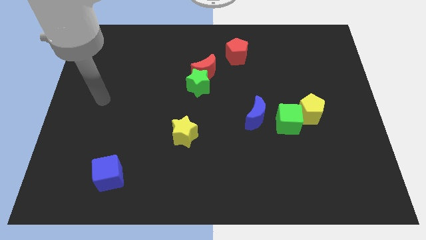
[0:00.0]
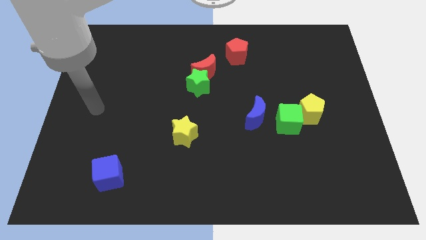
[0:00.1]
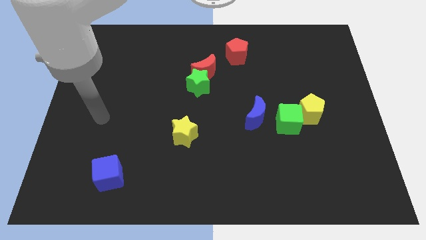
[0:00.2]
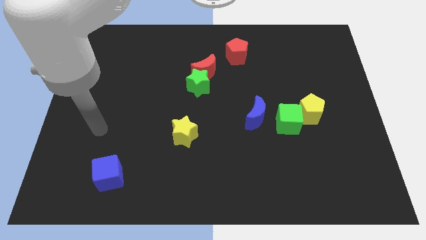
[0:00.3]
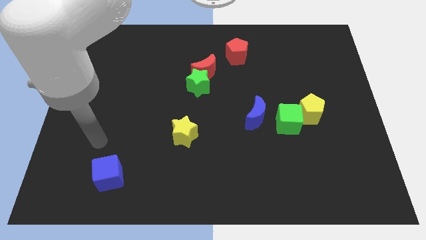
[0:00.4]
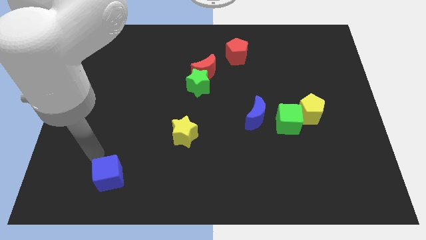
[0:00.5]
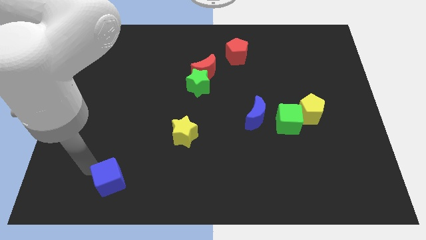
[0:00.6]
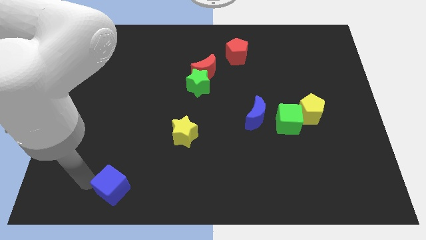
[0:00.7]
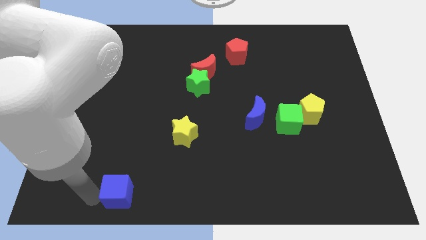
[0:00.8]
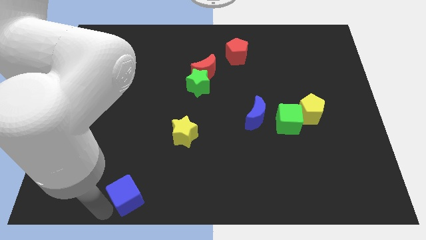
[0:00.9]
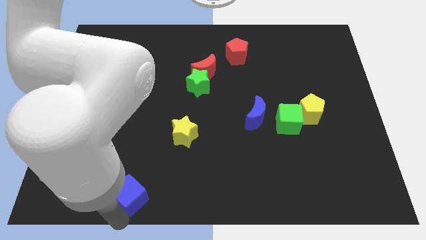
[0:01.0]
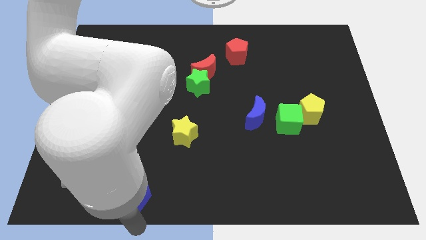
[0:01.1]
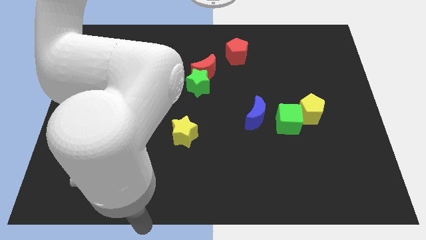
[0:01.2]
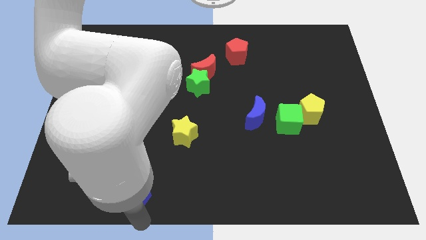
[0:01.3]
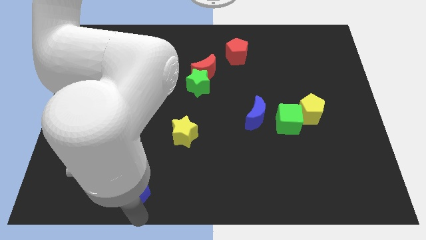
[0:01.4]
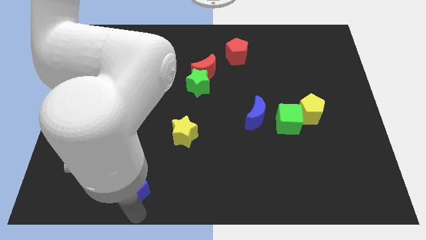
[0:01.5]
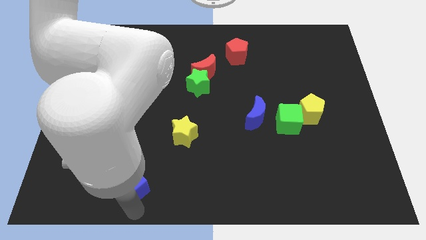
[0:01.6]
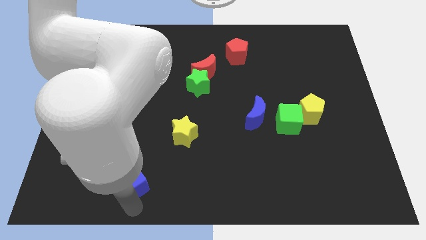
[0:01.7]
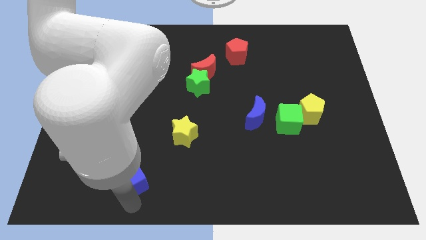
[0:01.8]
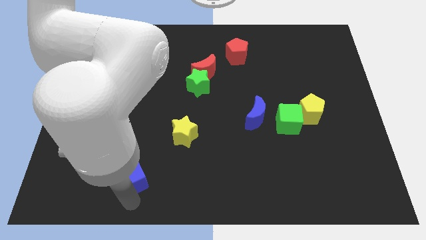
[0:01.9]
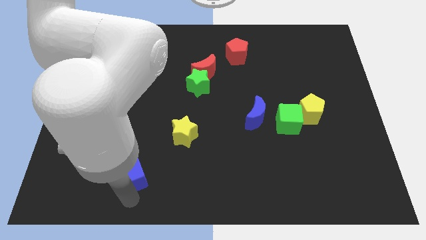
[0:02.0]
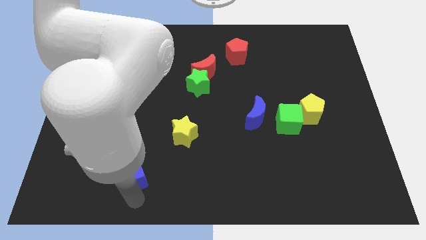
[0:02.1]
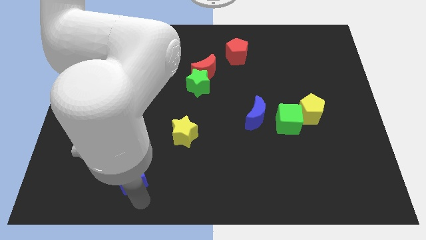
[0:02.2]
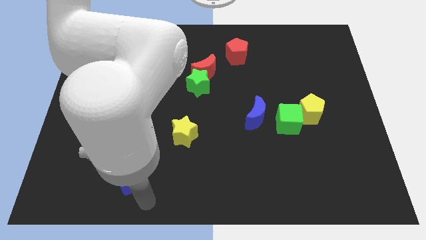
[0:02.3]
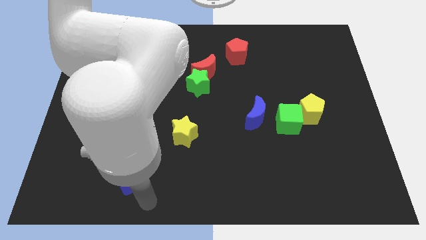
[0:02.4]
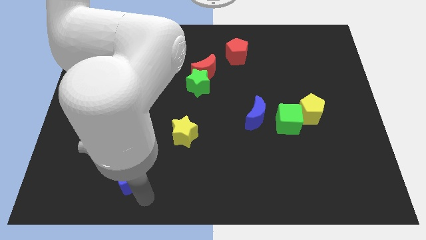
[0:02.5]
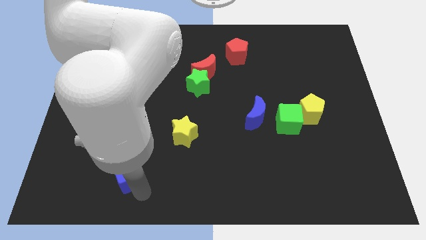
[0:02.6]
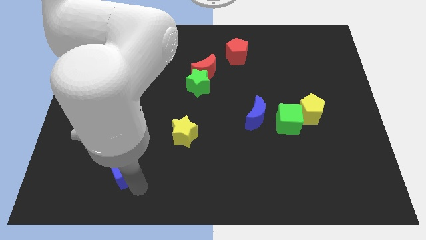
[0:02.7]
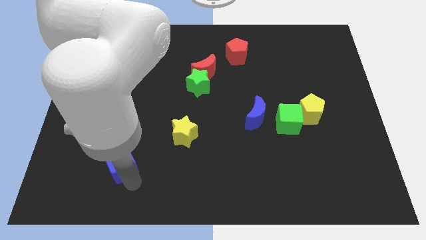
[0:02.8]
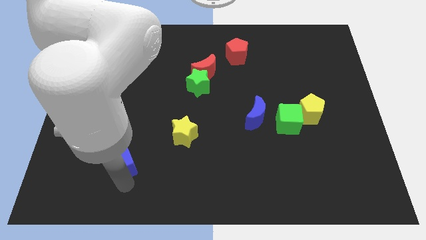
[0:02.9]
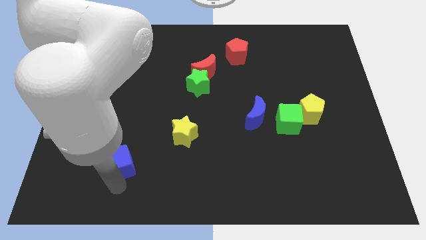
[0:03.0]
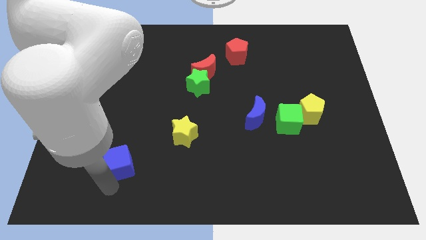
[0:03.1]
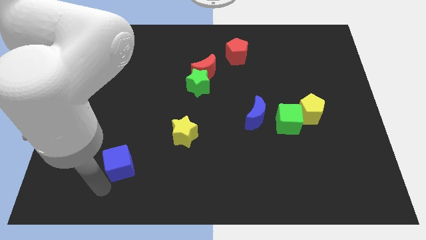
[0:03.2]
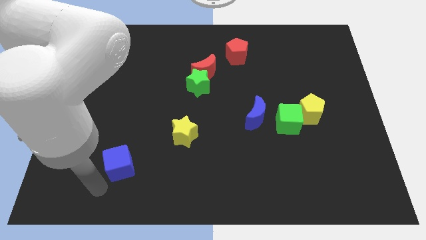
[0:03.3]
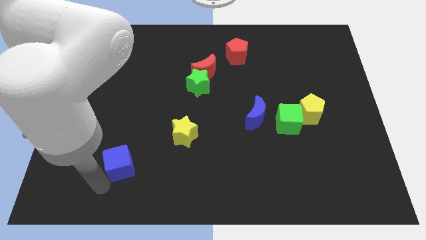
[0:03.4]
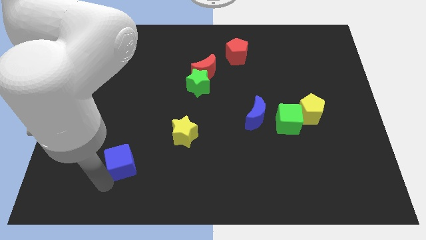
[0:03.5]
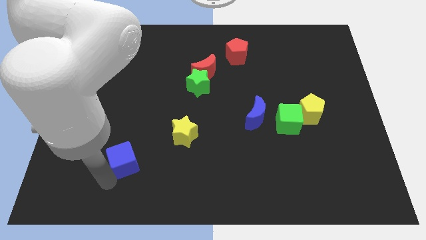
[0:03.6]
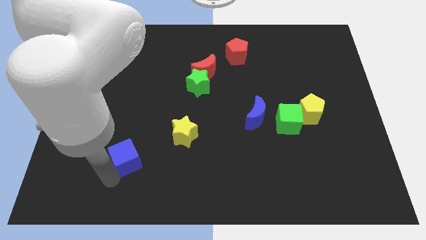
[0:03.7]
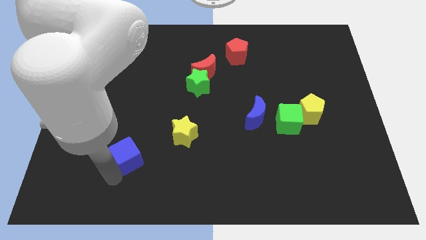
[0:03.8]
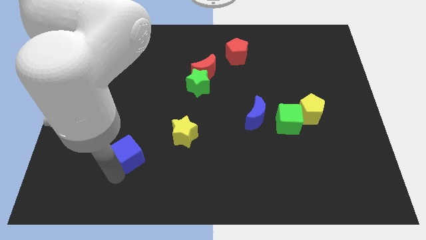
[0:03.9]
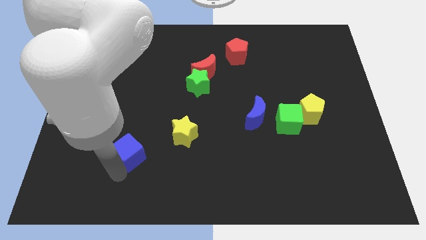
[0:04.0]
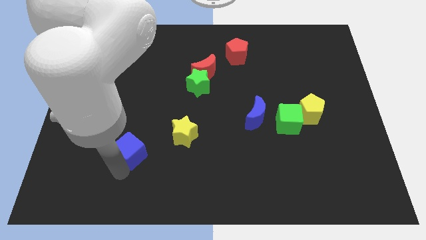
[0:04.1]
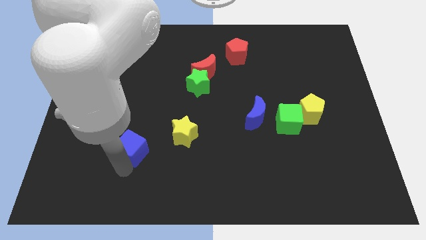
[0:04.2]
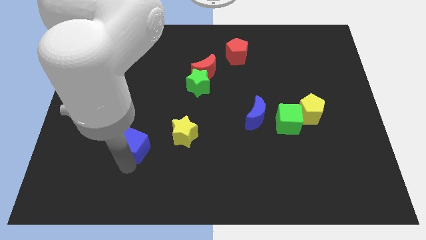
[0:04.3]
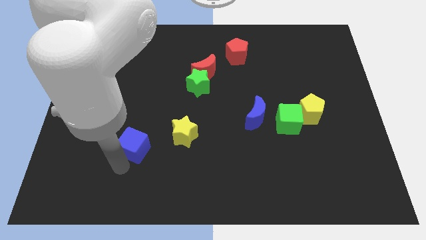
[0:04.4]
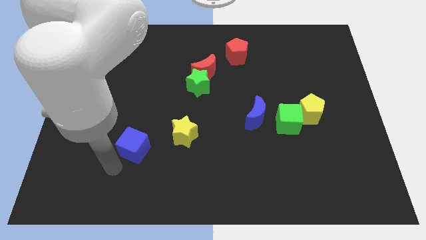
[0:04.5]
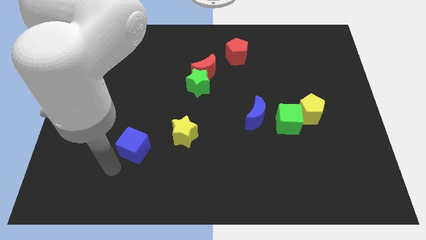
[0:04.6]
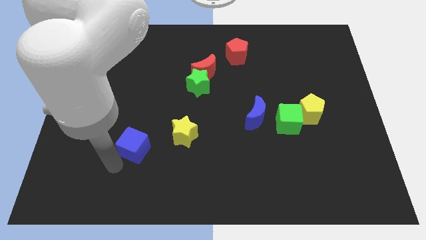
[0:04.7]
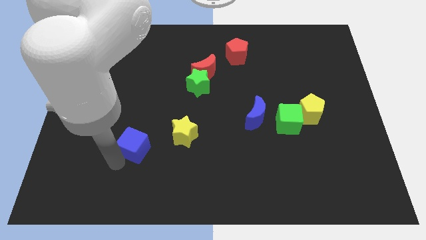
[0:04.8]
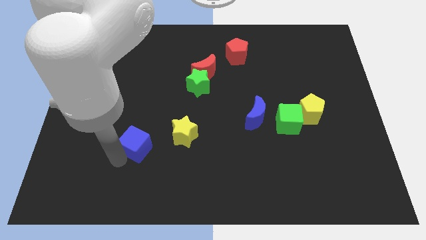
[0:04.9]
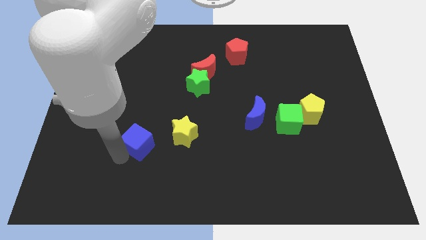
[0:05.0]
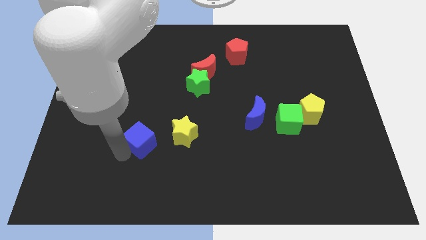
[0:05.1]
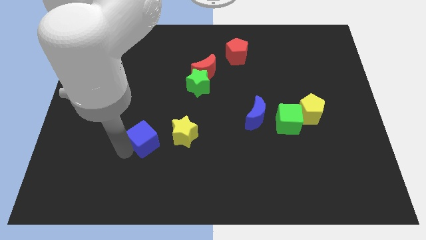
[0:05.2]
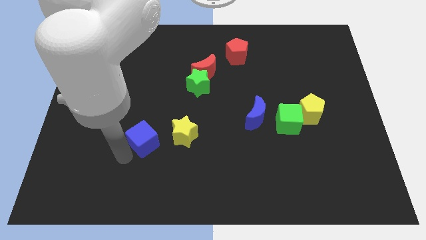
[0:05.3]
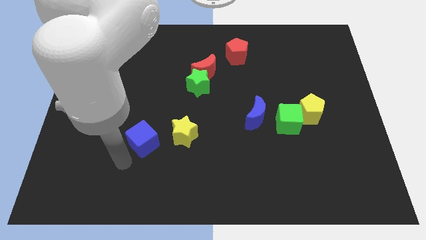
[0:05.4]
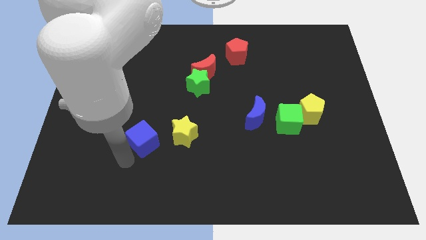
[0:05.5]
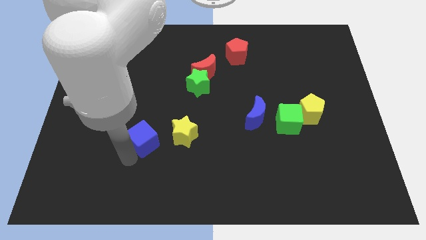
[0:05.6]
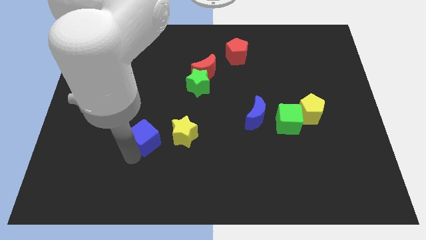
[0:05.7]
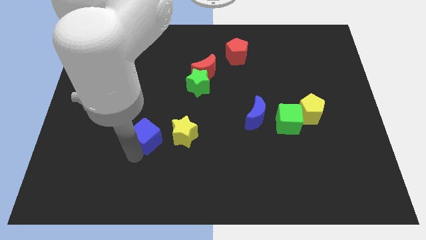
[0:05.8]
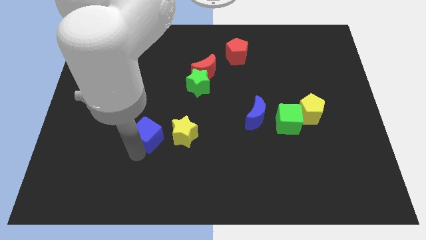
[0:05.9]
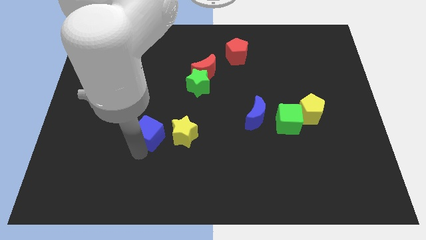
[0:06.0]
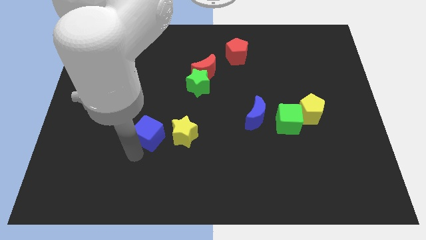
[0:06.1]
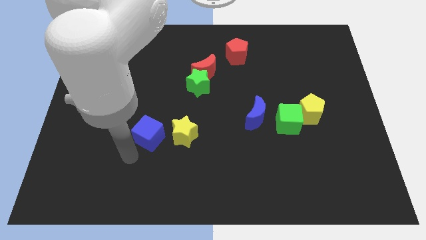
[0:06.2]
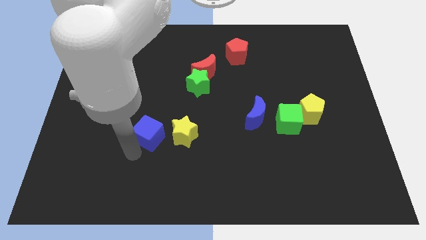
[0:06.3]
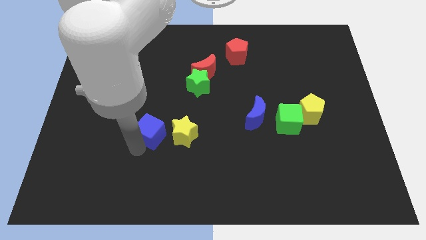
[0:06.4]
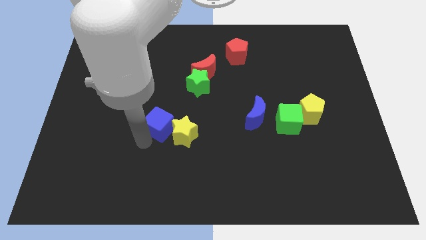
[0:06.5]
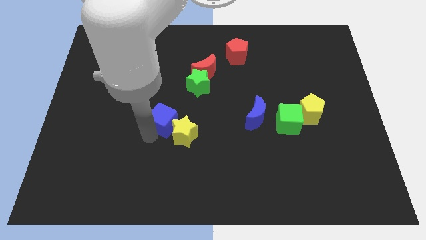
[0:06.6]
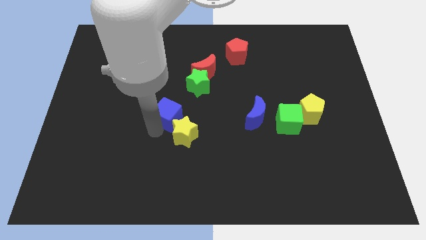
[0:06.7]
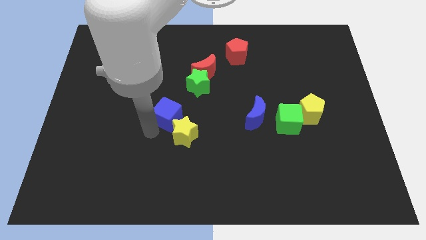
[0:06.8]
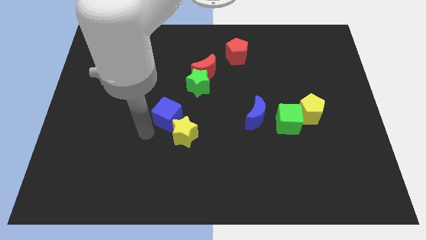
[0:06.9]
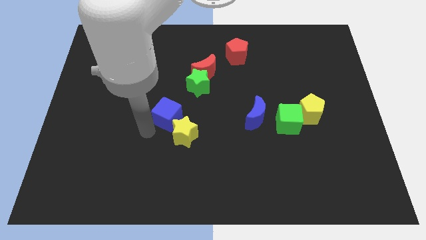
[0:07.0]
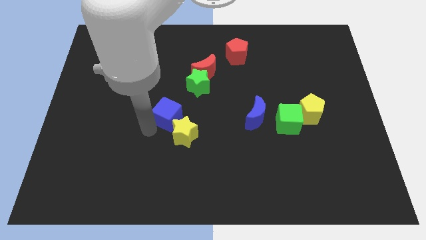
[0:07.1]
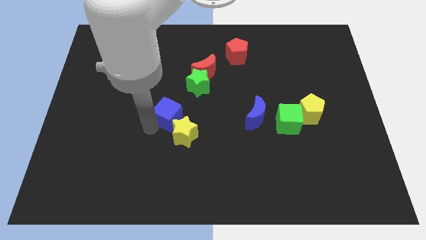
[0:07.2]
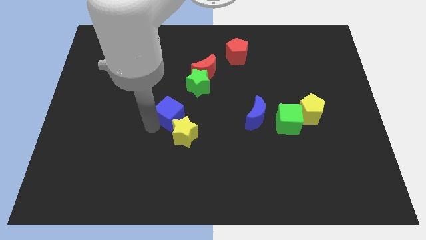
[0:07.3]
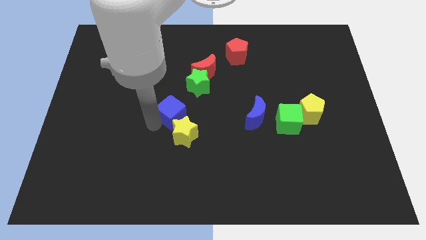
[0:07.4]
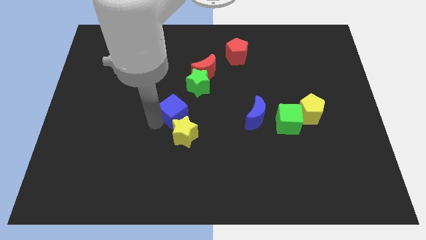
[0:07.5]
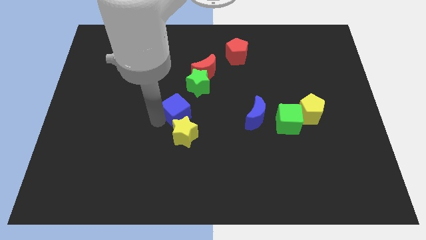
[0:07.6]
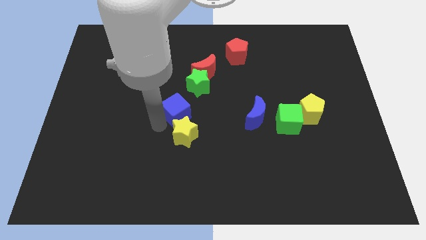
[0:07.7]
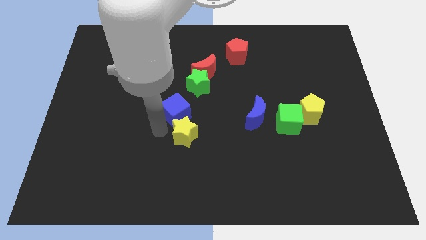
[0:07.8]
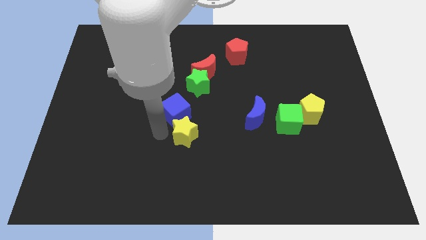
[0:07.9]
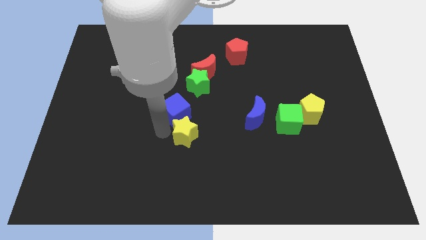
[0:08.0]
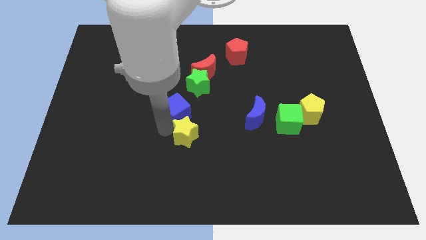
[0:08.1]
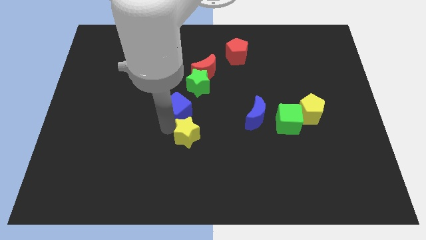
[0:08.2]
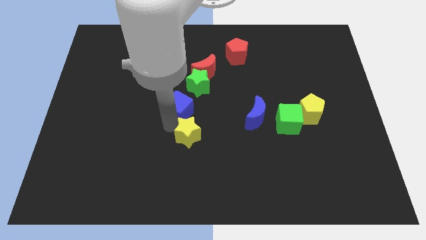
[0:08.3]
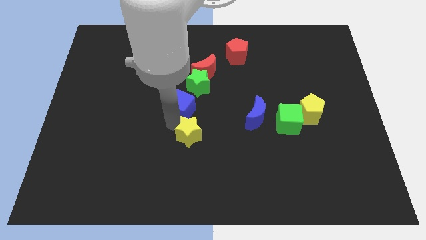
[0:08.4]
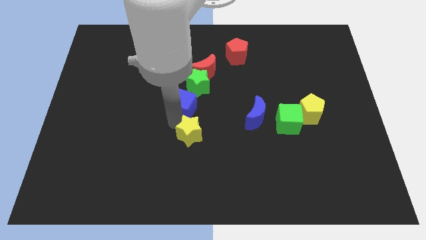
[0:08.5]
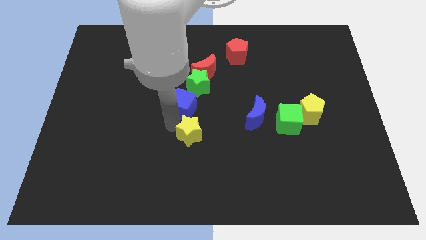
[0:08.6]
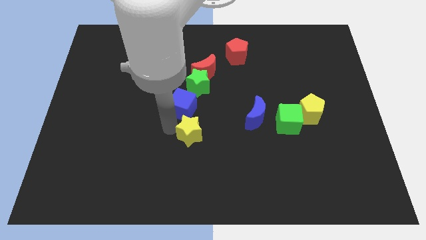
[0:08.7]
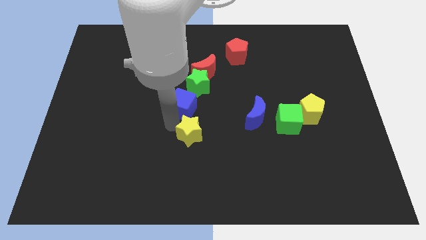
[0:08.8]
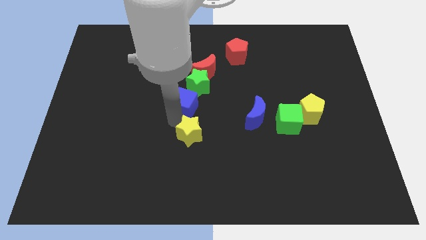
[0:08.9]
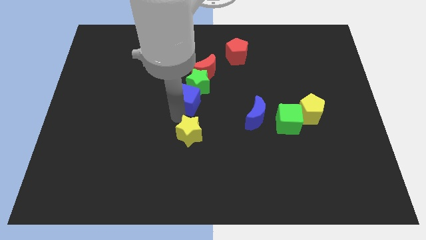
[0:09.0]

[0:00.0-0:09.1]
put the blue cube towards the green star
